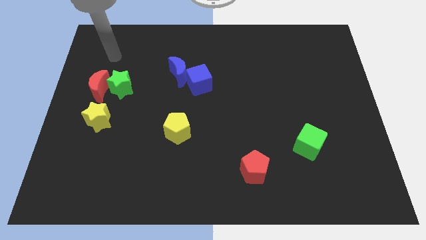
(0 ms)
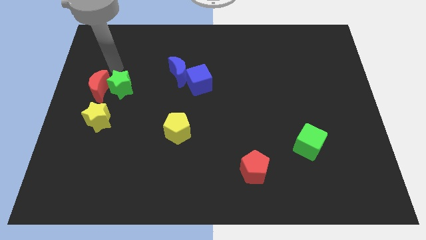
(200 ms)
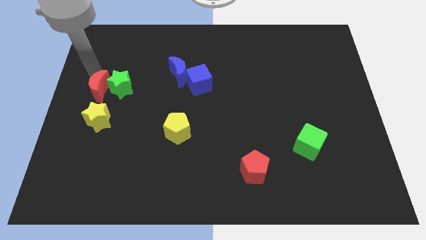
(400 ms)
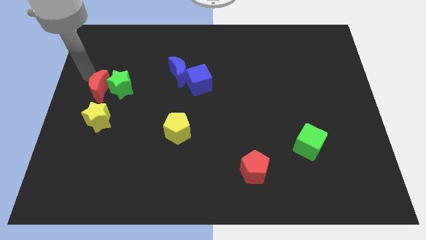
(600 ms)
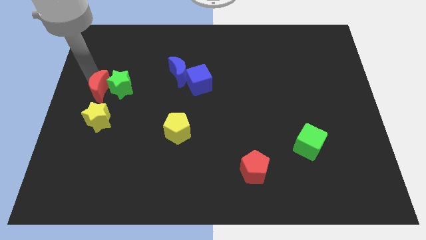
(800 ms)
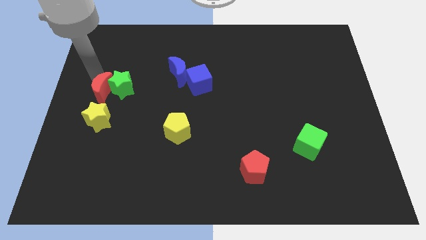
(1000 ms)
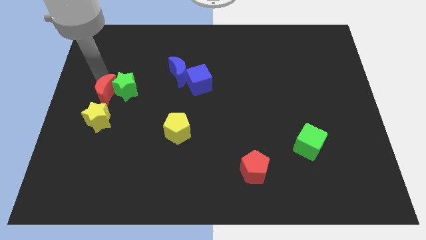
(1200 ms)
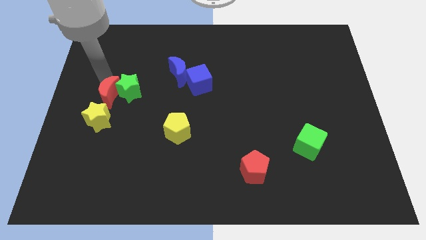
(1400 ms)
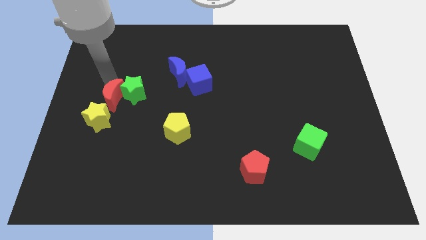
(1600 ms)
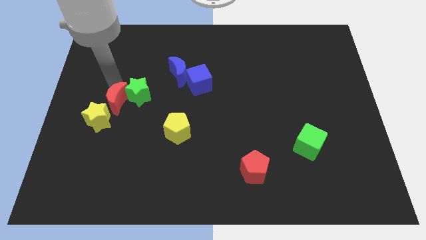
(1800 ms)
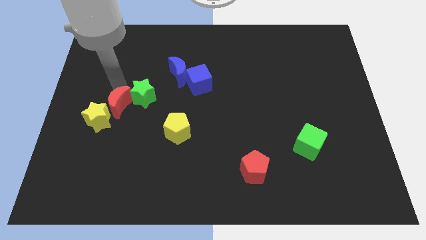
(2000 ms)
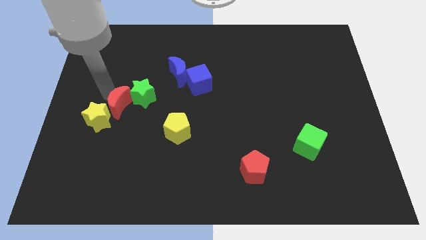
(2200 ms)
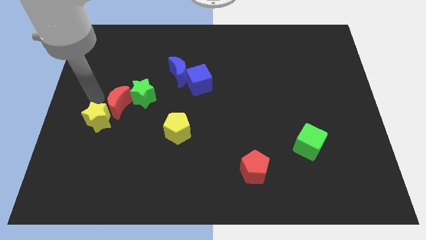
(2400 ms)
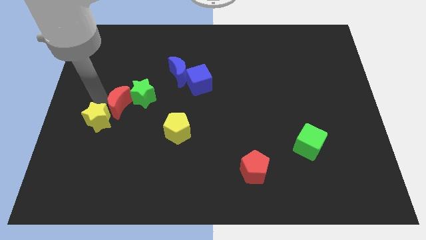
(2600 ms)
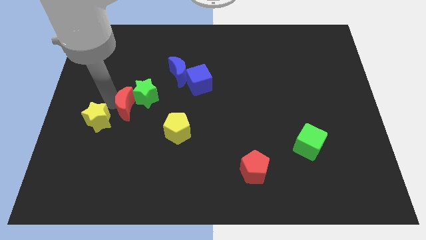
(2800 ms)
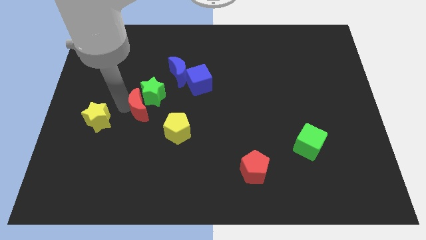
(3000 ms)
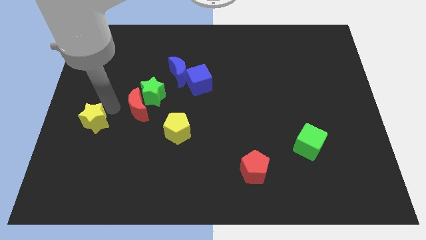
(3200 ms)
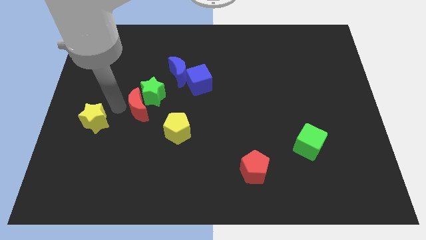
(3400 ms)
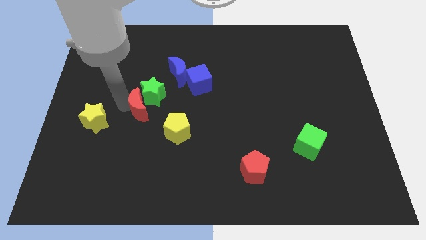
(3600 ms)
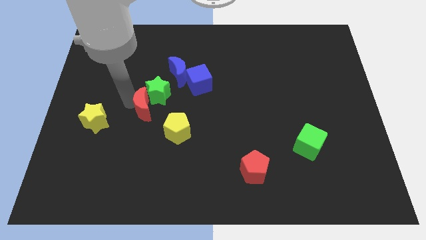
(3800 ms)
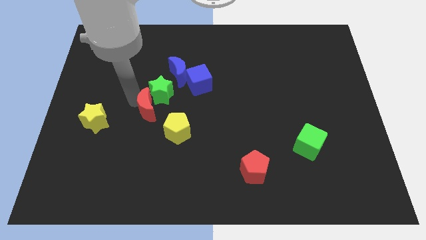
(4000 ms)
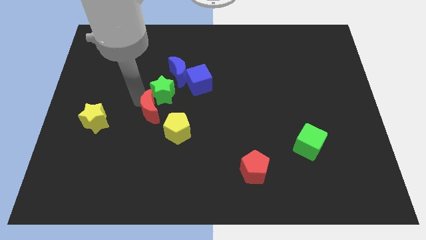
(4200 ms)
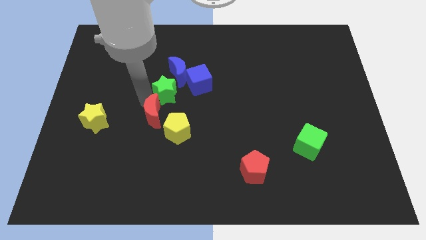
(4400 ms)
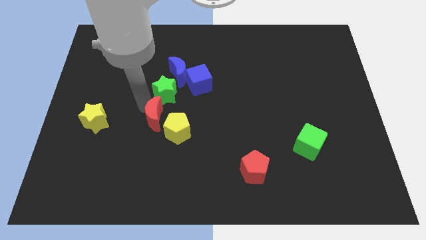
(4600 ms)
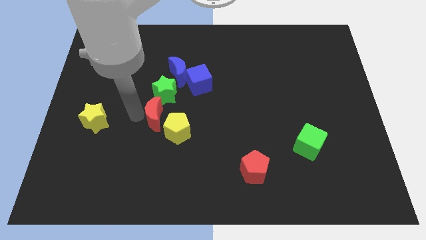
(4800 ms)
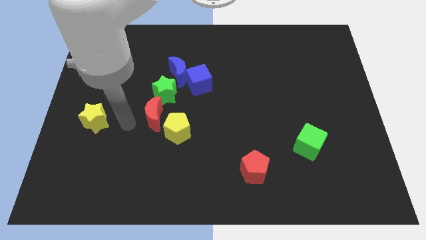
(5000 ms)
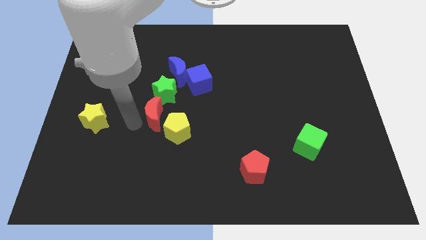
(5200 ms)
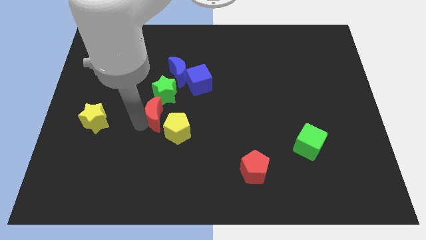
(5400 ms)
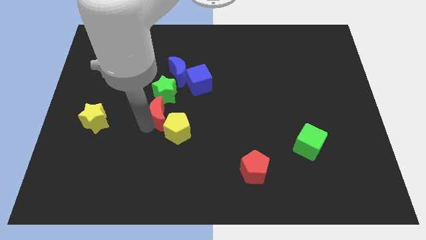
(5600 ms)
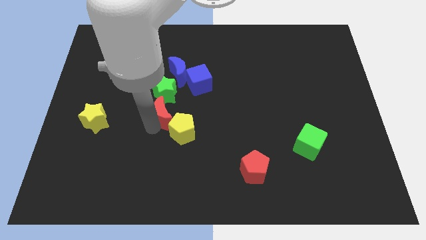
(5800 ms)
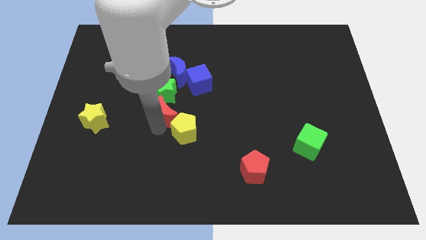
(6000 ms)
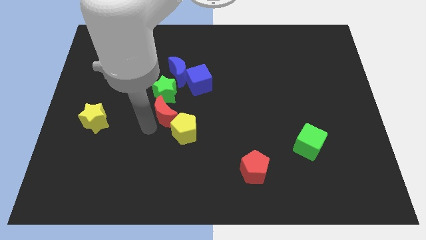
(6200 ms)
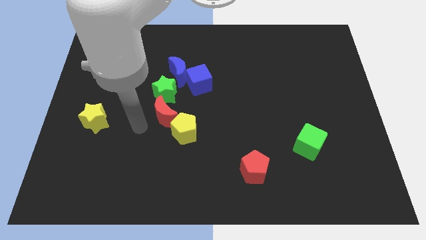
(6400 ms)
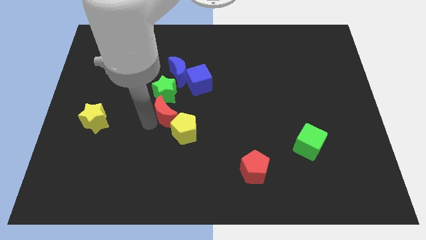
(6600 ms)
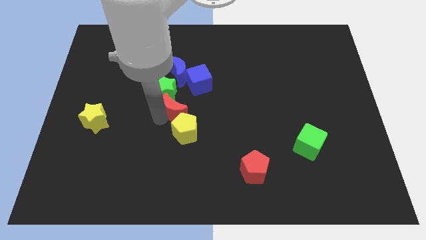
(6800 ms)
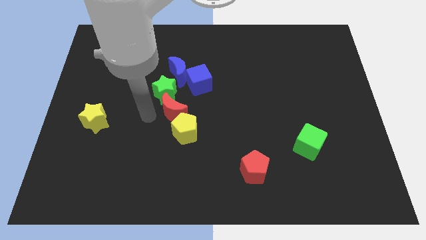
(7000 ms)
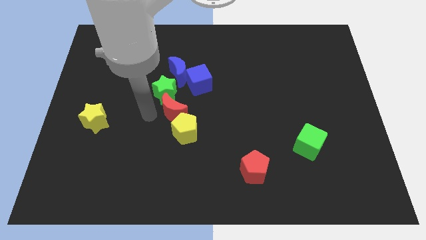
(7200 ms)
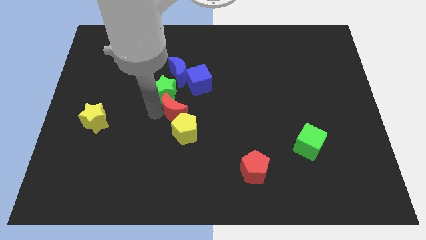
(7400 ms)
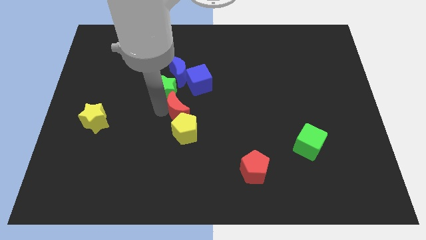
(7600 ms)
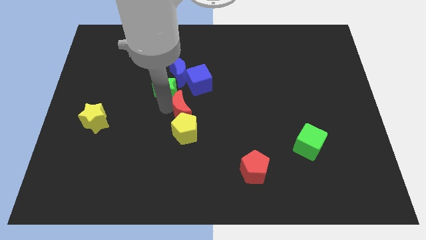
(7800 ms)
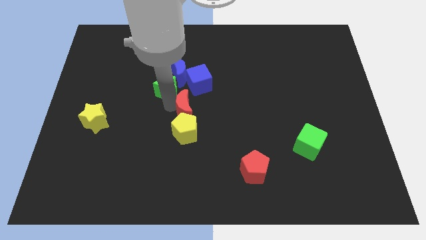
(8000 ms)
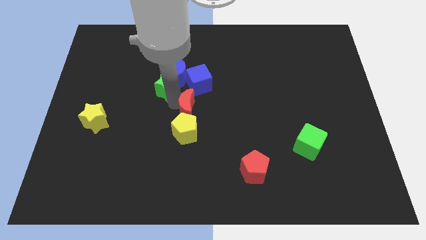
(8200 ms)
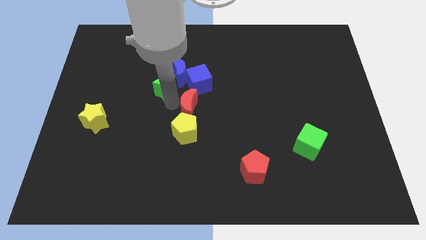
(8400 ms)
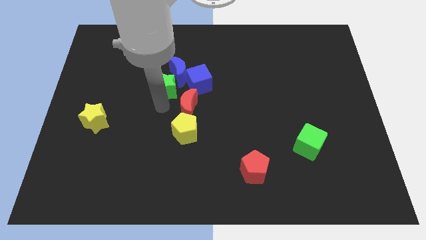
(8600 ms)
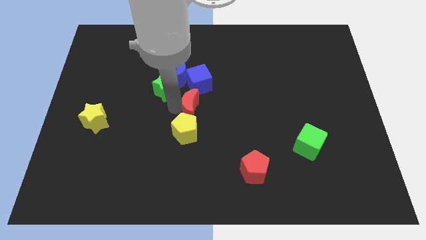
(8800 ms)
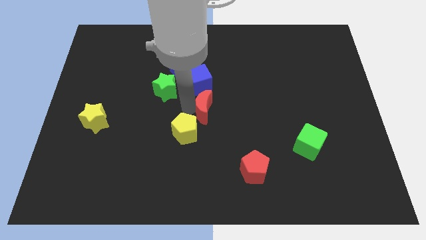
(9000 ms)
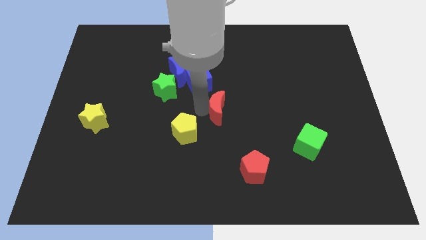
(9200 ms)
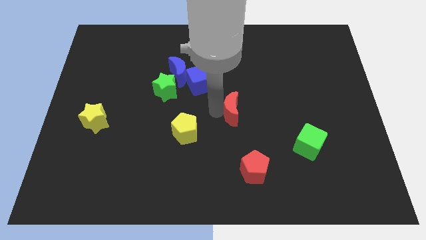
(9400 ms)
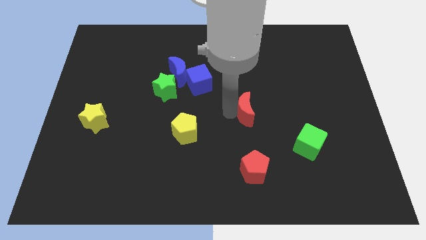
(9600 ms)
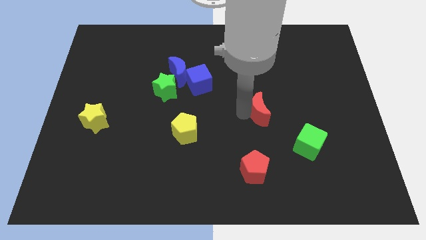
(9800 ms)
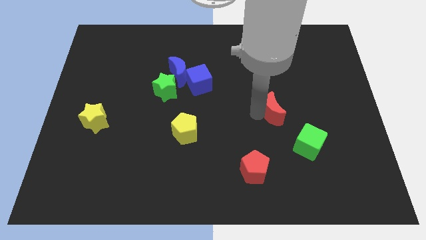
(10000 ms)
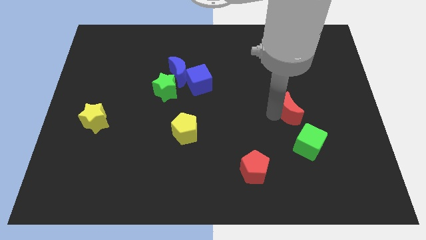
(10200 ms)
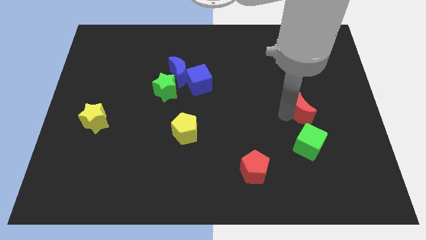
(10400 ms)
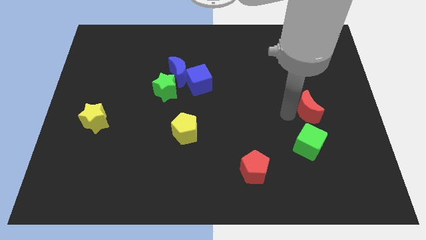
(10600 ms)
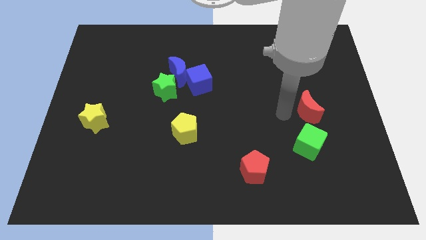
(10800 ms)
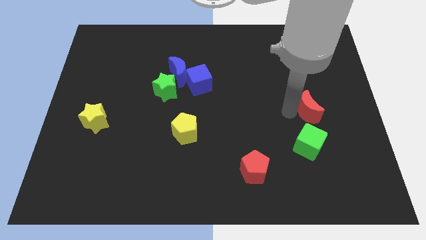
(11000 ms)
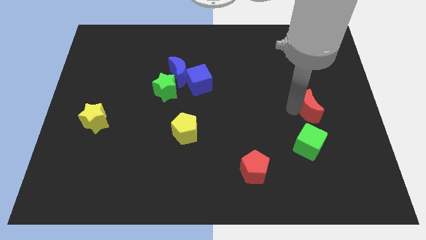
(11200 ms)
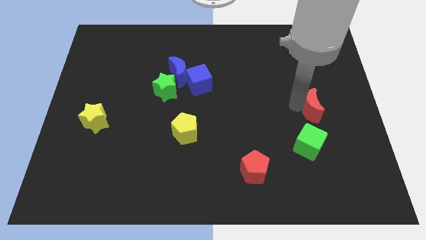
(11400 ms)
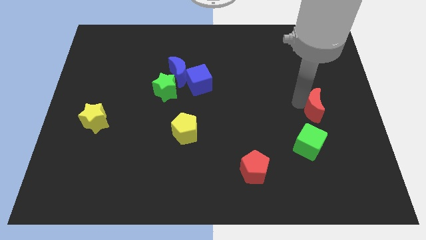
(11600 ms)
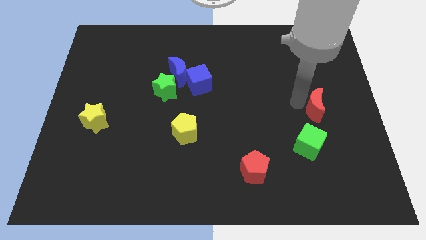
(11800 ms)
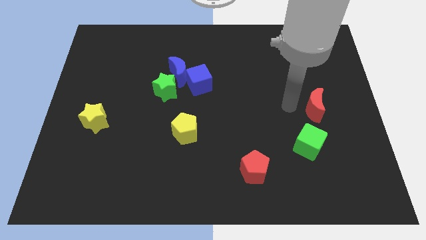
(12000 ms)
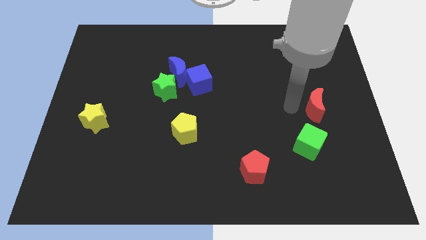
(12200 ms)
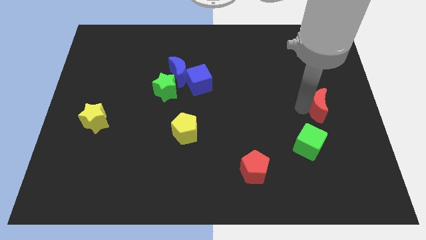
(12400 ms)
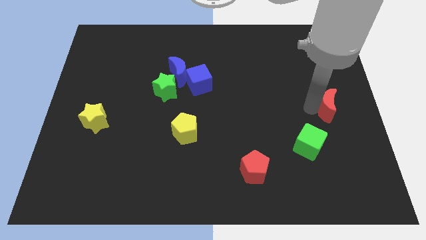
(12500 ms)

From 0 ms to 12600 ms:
push the red moon to the right side
